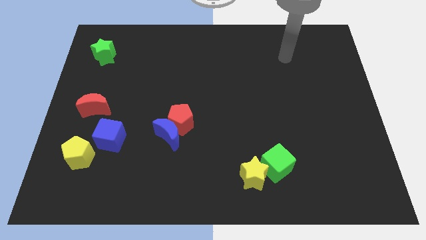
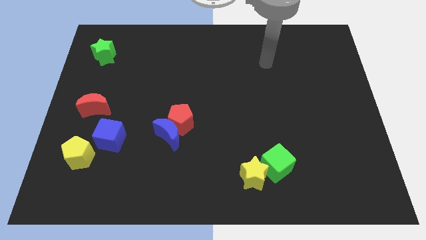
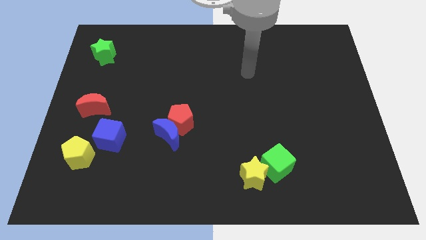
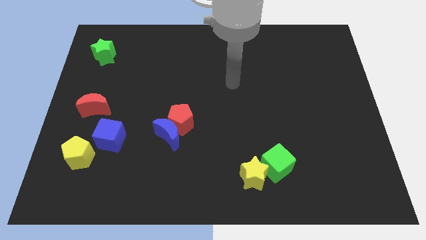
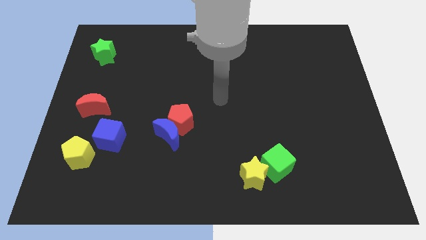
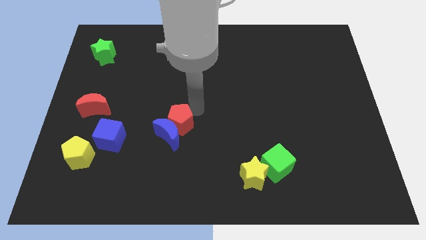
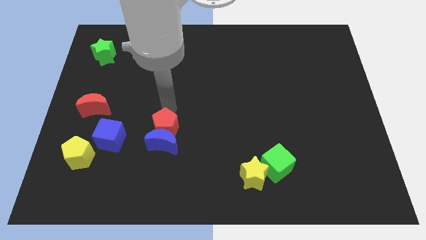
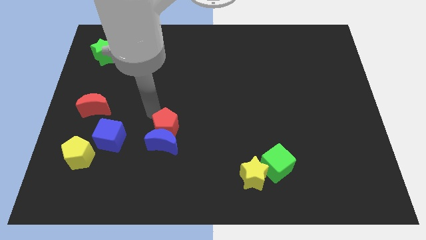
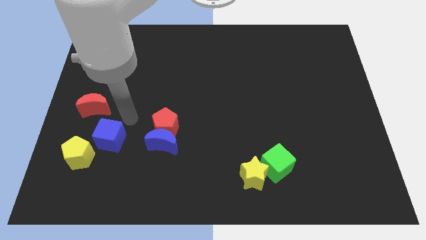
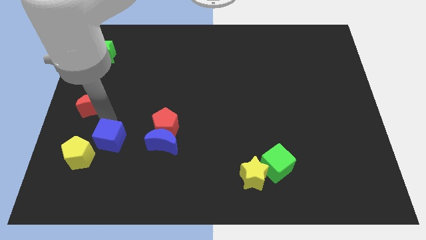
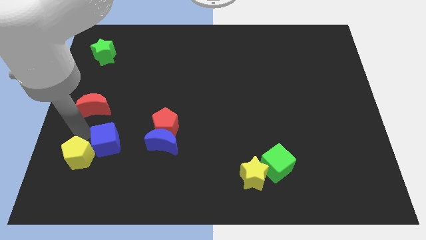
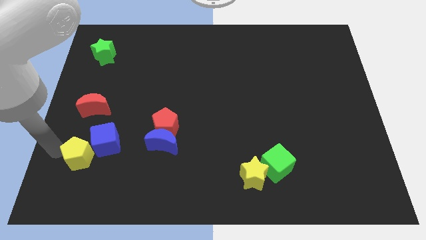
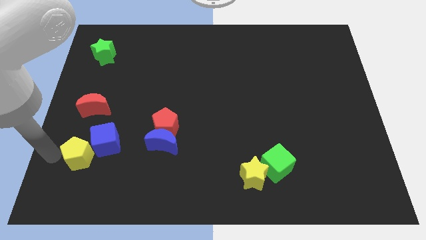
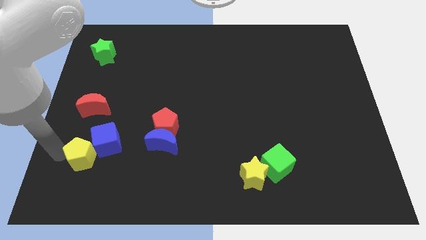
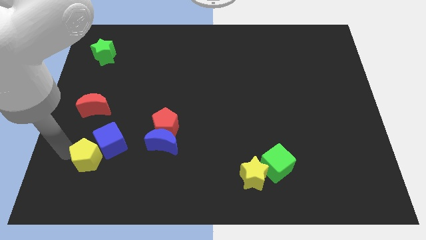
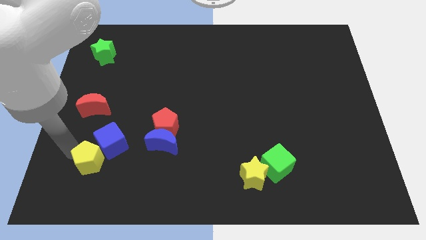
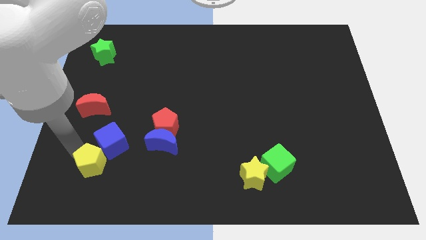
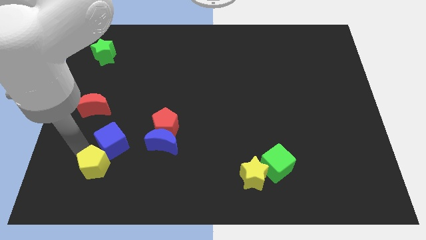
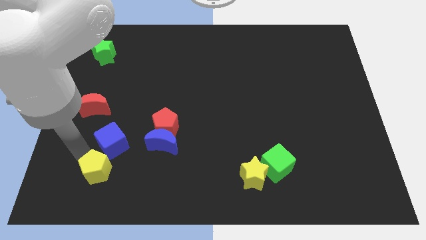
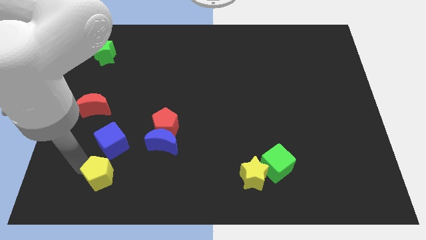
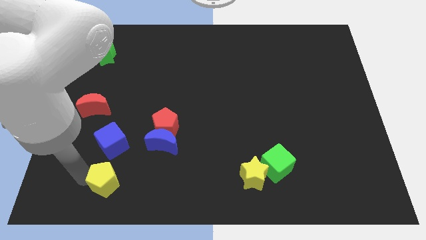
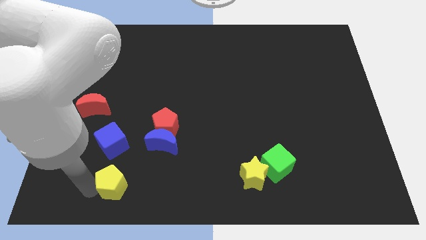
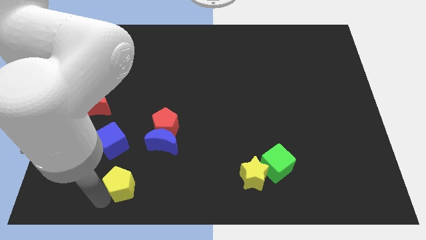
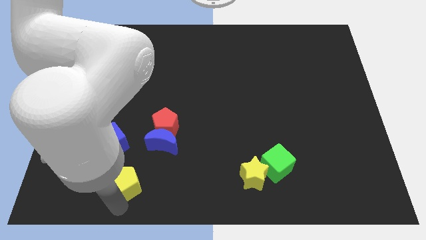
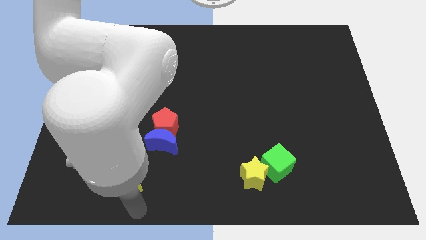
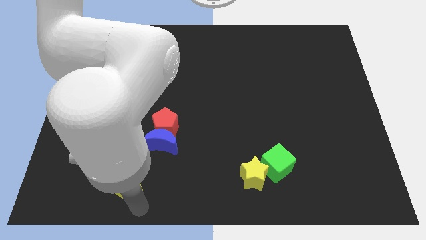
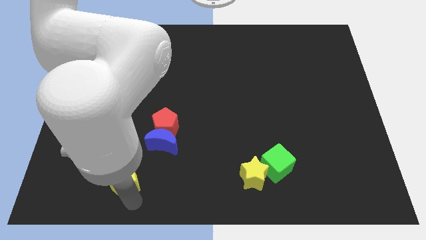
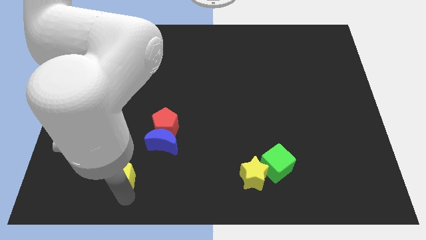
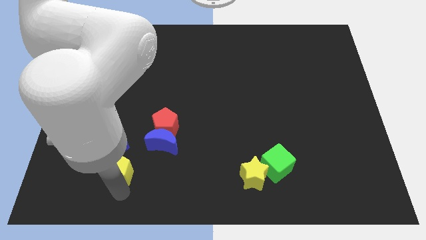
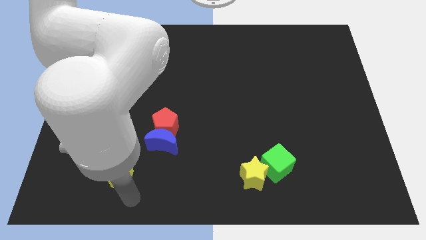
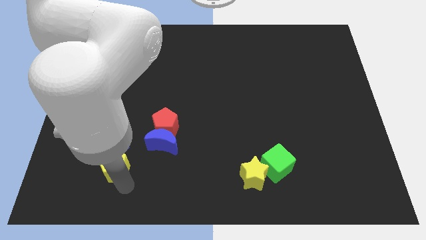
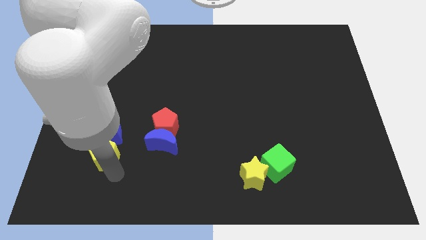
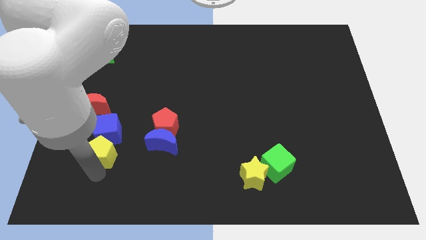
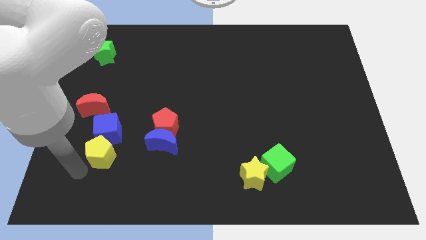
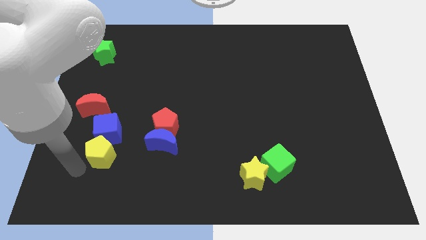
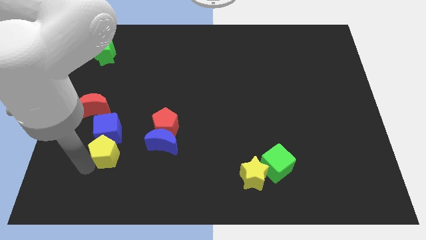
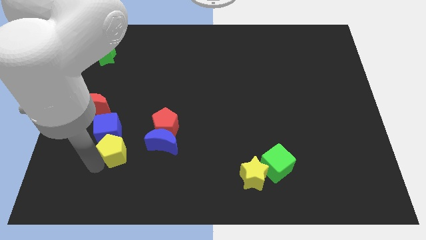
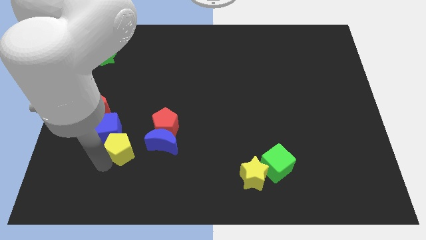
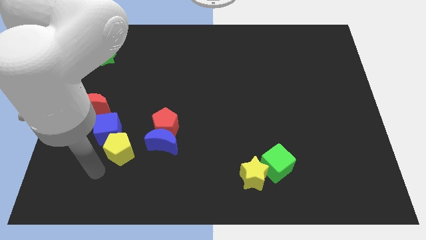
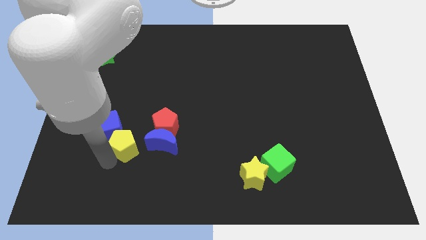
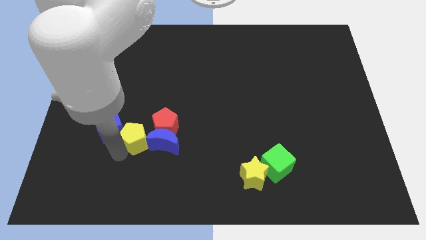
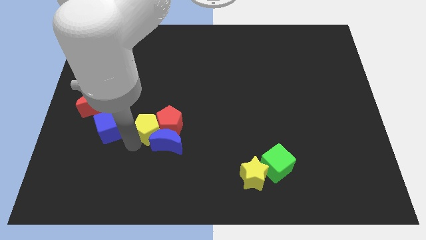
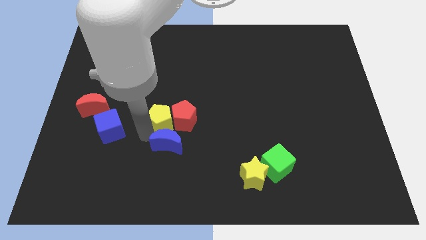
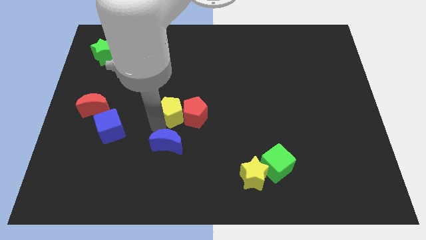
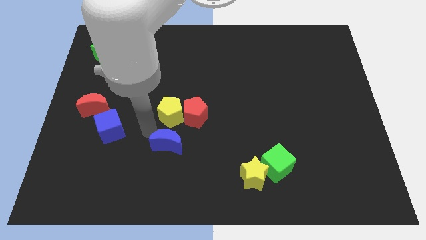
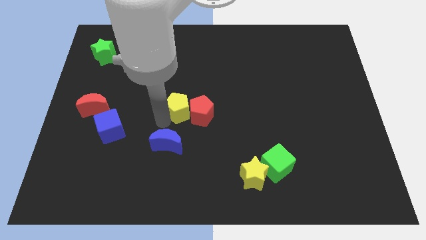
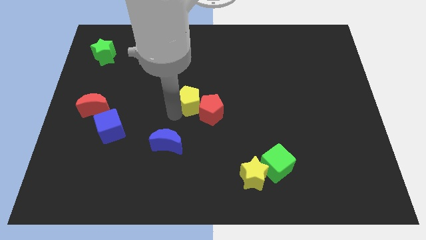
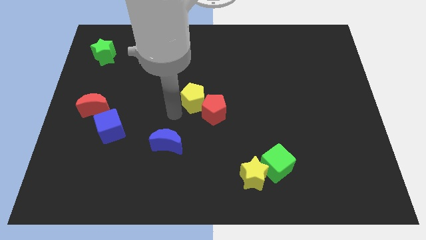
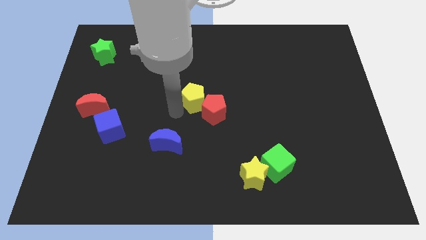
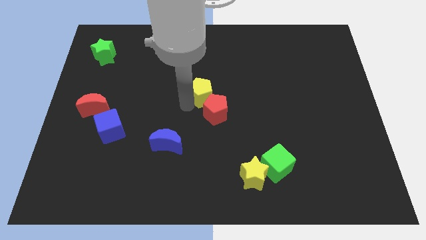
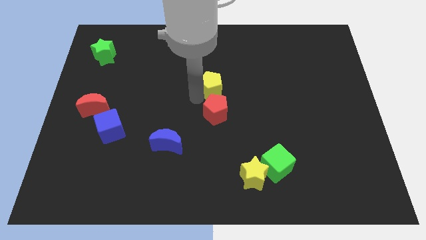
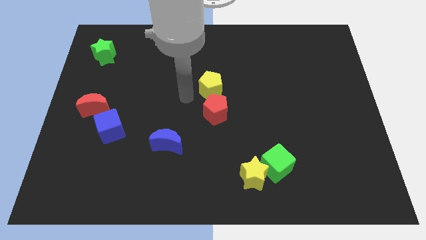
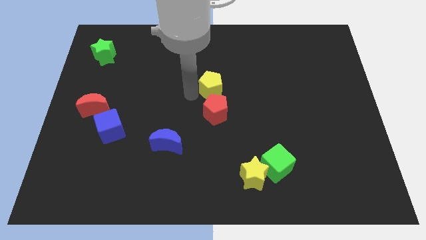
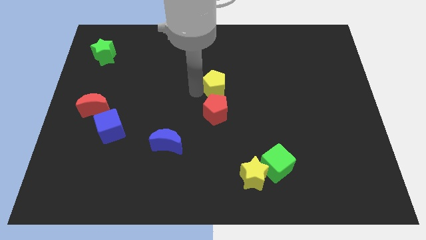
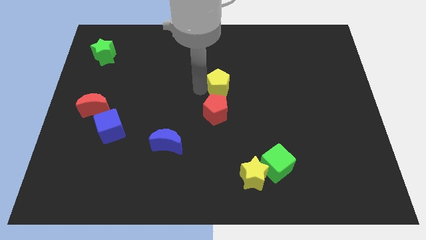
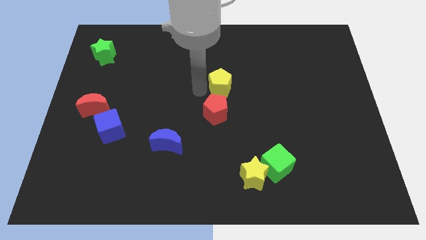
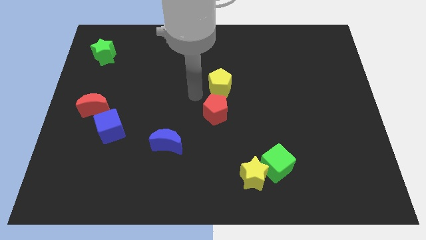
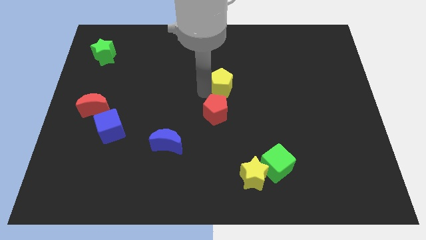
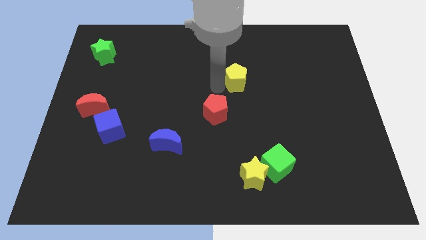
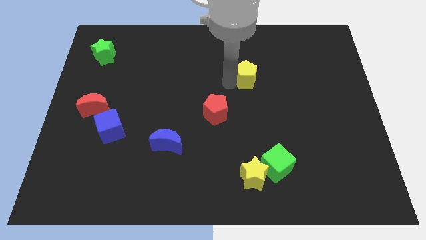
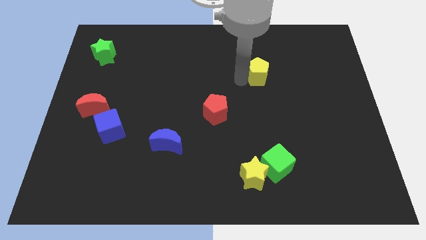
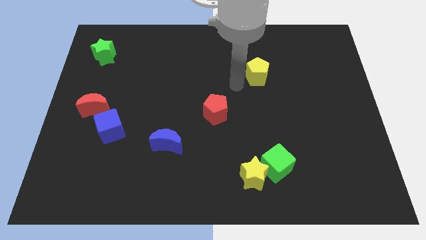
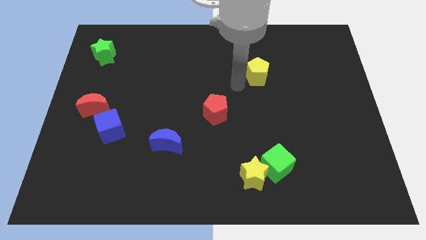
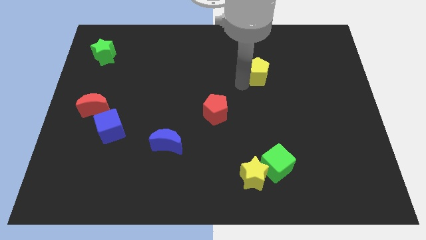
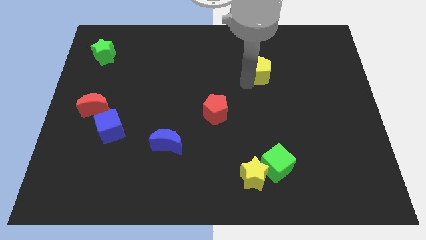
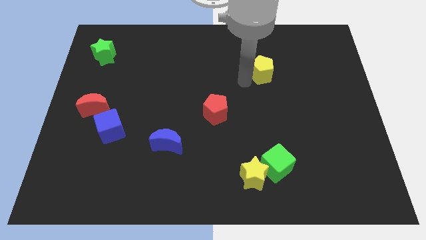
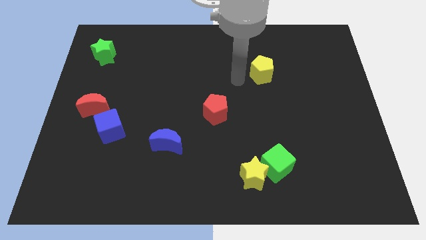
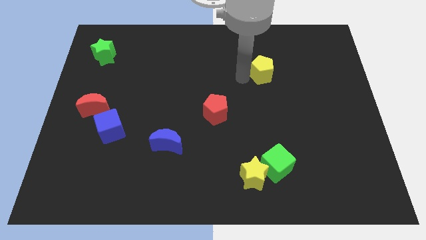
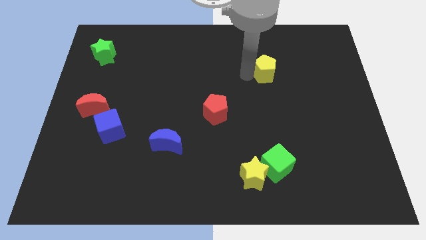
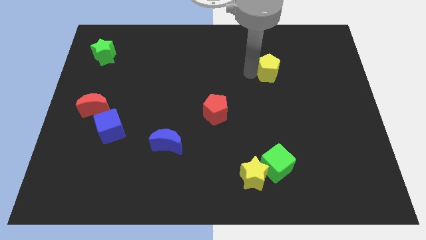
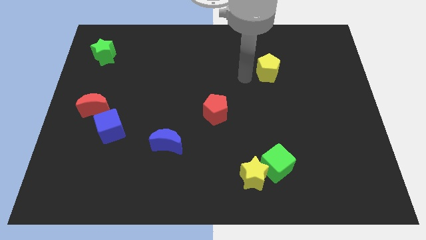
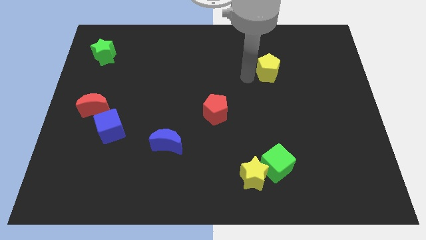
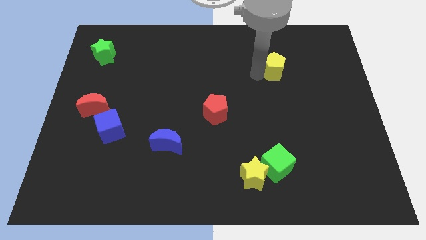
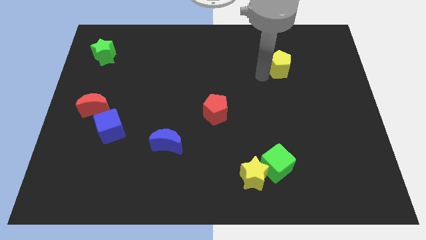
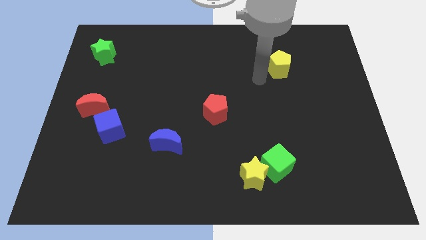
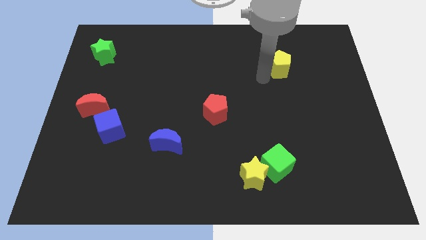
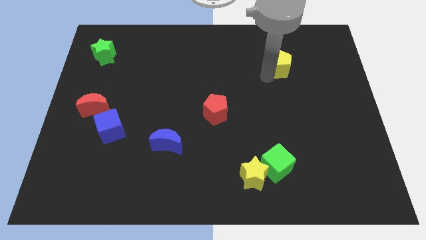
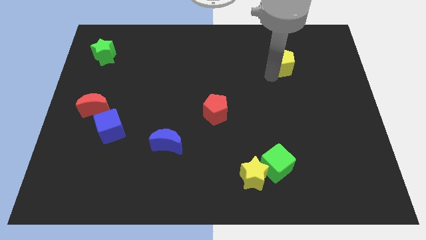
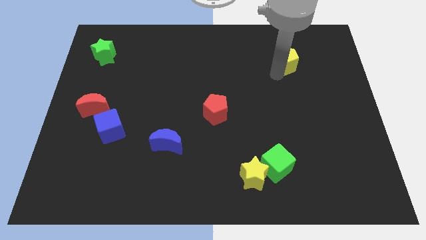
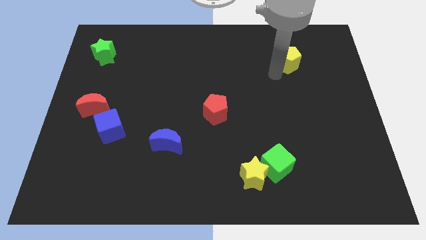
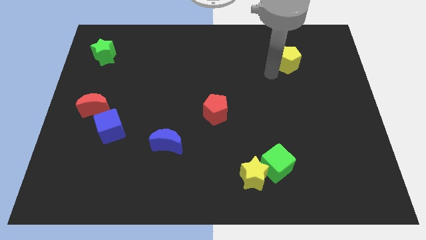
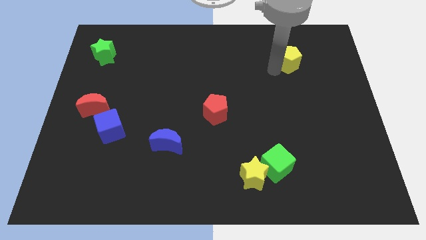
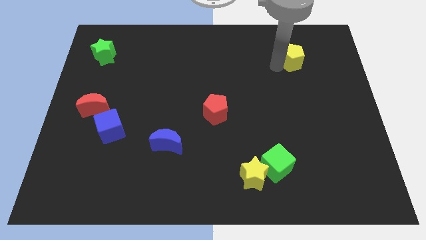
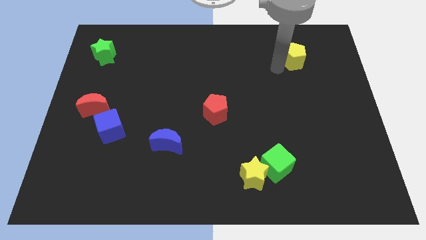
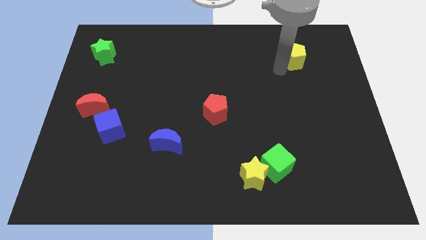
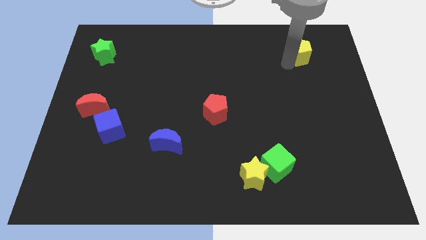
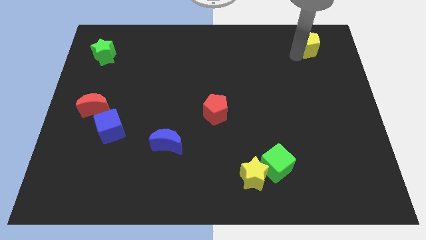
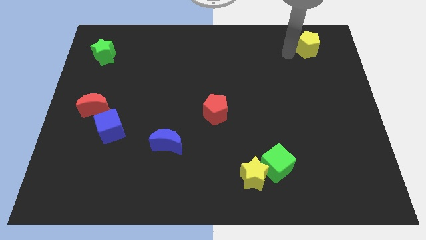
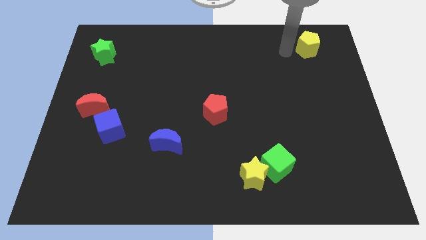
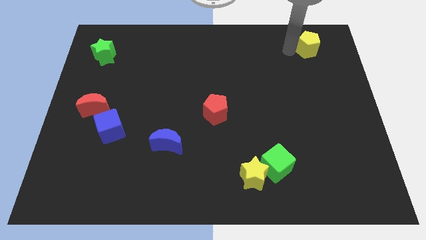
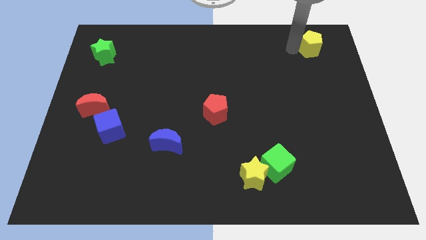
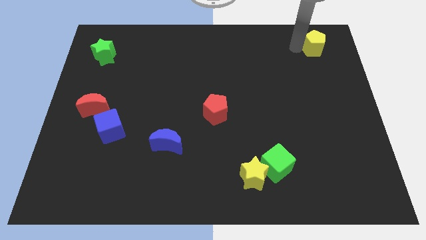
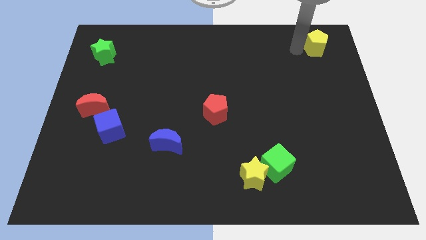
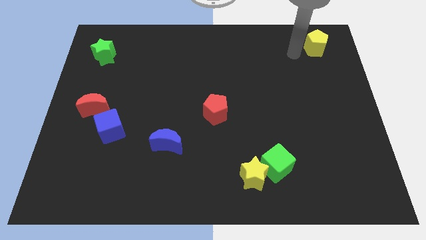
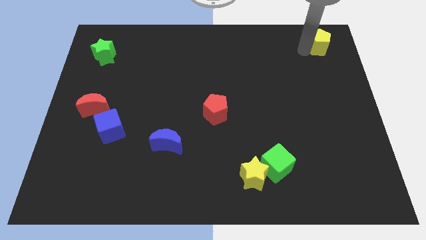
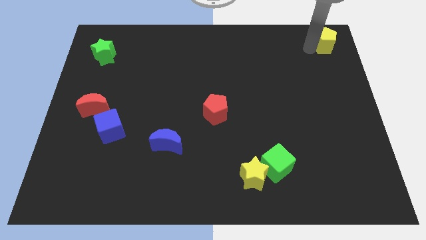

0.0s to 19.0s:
move the yellow pentagon to the top right of the board
